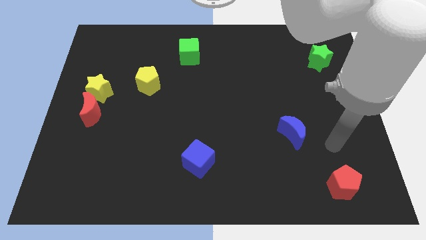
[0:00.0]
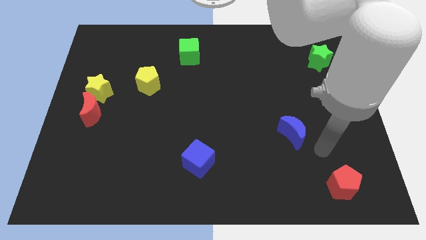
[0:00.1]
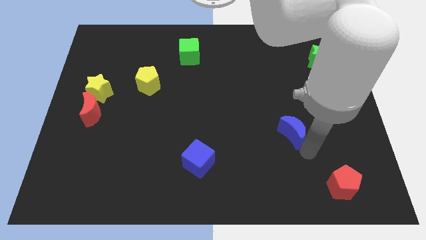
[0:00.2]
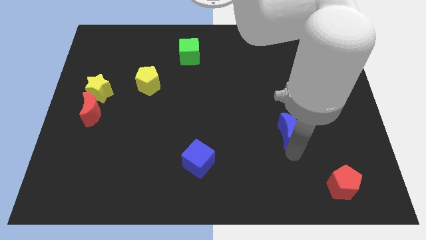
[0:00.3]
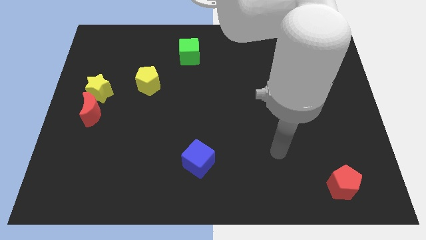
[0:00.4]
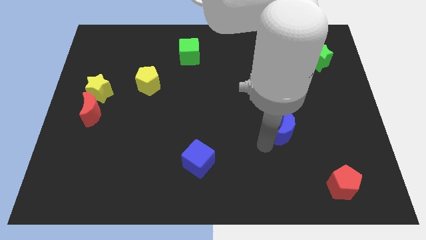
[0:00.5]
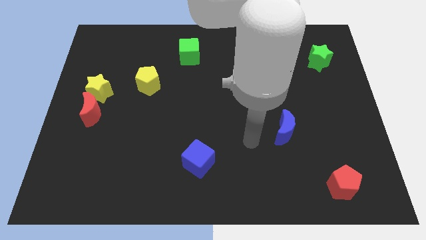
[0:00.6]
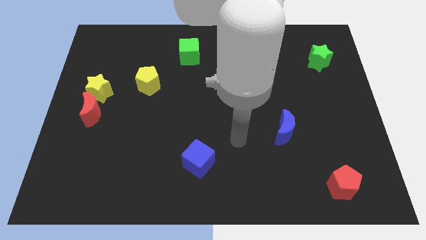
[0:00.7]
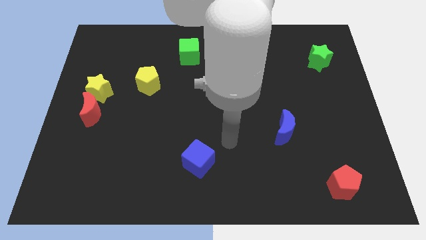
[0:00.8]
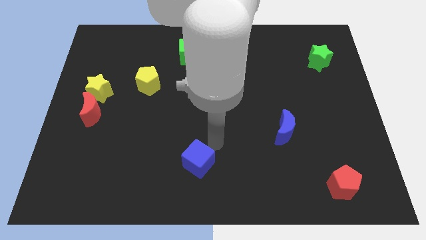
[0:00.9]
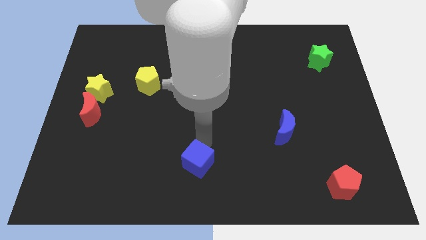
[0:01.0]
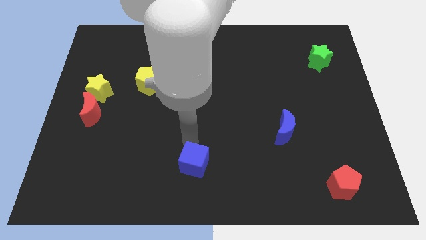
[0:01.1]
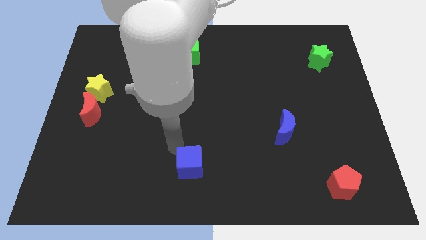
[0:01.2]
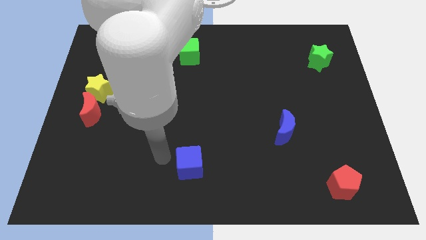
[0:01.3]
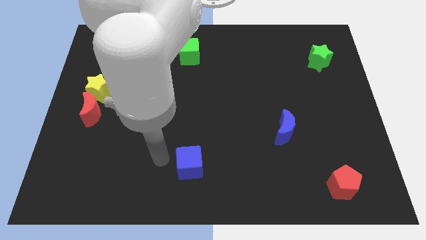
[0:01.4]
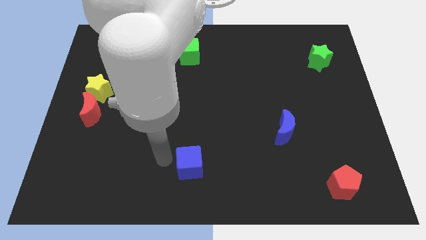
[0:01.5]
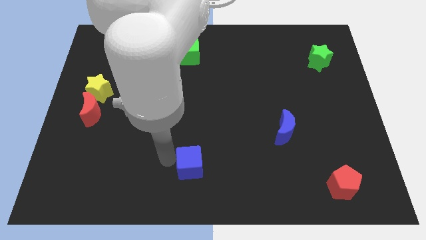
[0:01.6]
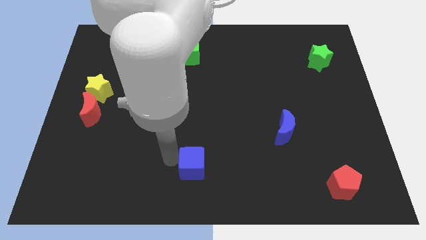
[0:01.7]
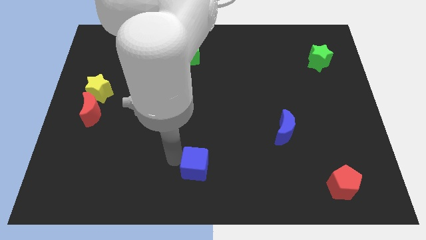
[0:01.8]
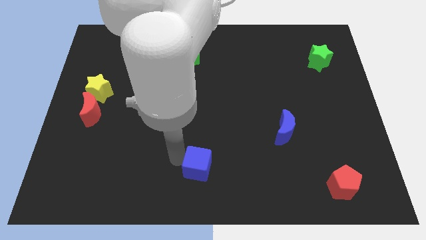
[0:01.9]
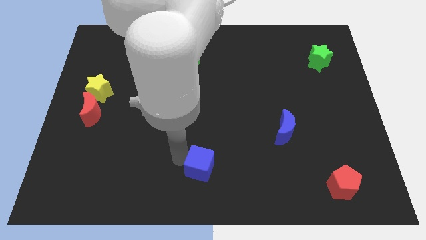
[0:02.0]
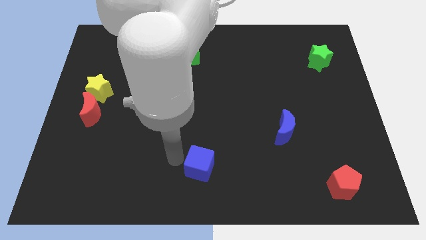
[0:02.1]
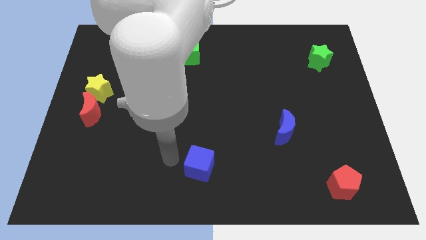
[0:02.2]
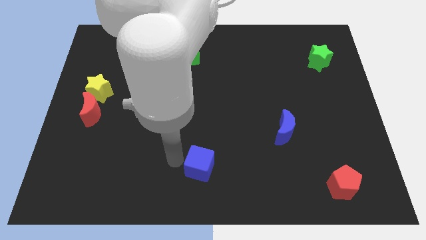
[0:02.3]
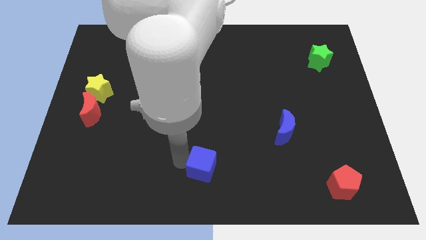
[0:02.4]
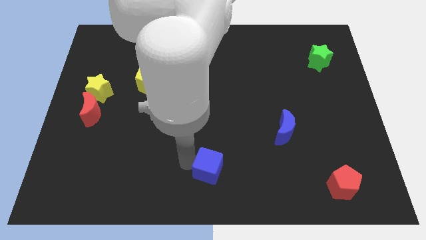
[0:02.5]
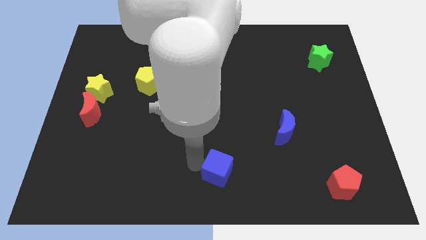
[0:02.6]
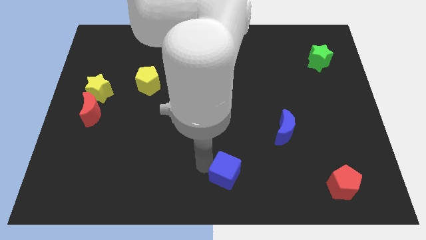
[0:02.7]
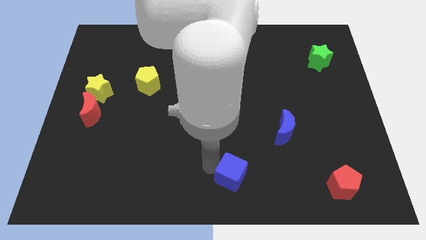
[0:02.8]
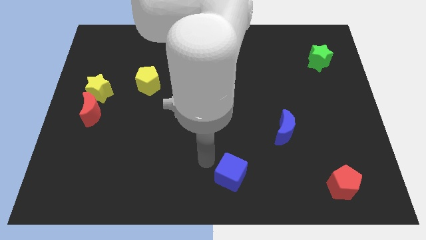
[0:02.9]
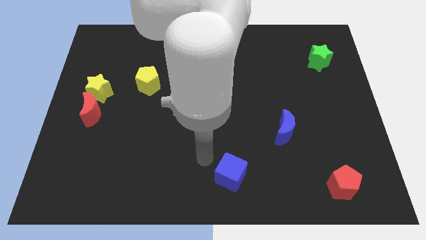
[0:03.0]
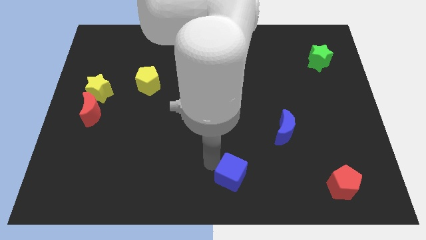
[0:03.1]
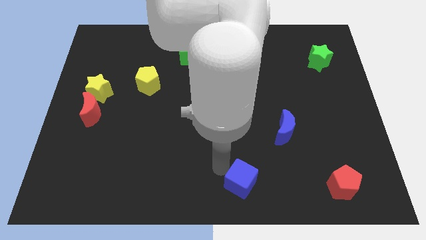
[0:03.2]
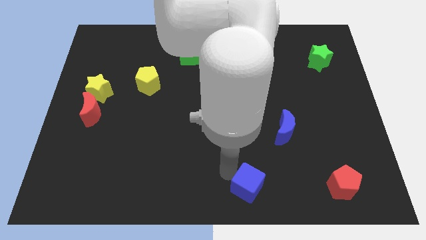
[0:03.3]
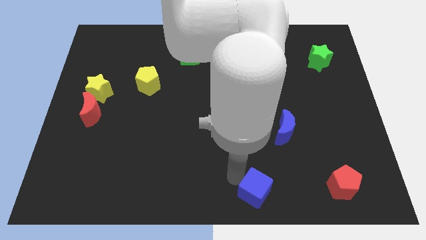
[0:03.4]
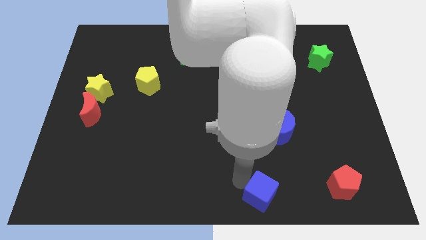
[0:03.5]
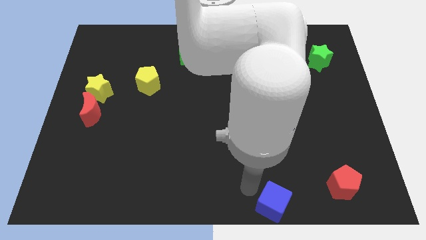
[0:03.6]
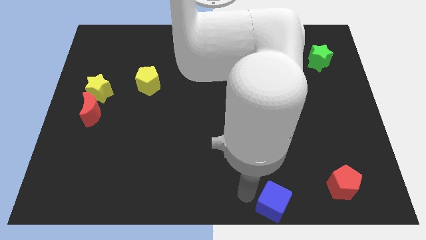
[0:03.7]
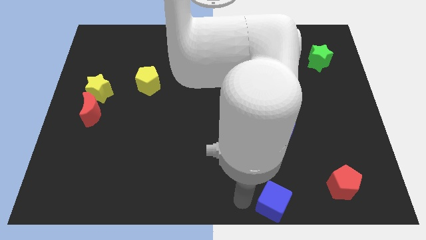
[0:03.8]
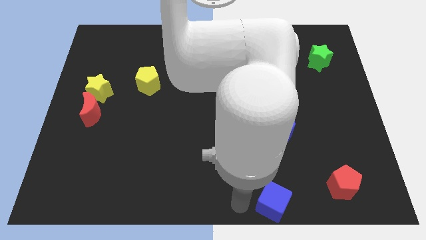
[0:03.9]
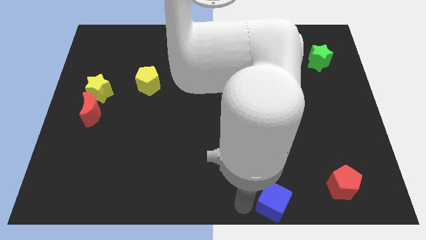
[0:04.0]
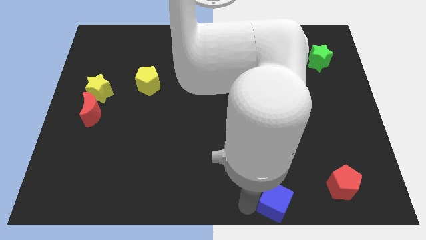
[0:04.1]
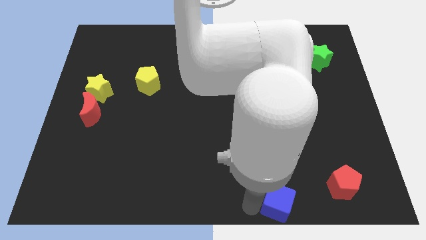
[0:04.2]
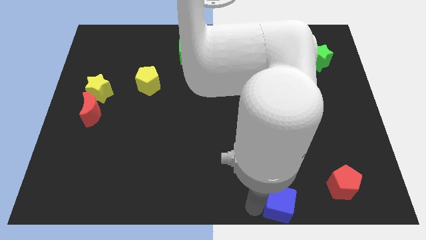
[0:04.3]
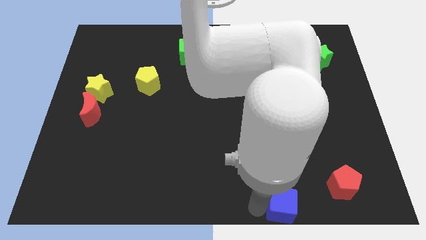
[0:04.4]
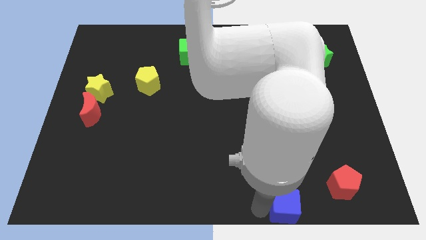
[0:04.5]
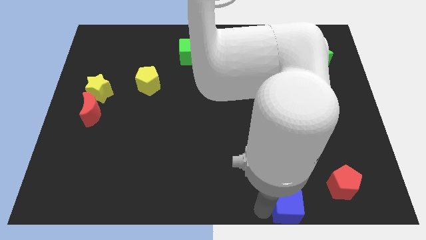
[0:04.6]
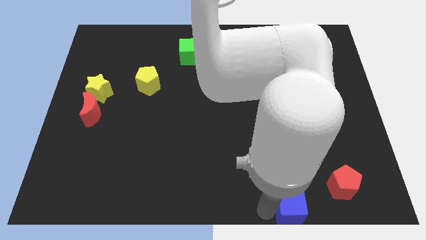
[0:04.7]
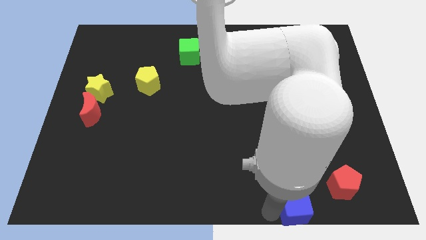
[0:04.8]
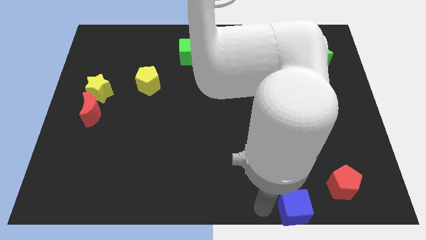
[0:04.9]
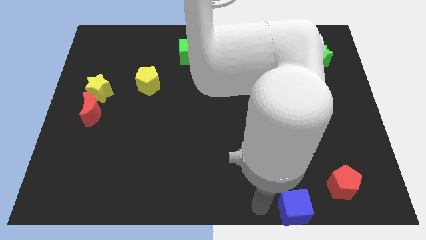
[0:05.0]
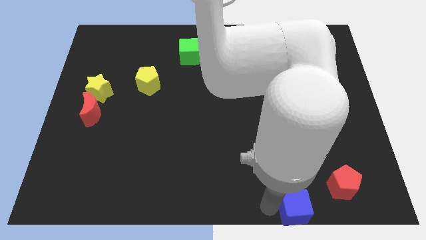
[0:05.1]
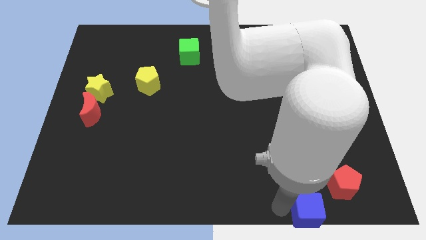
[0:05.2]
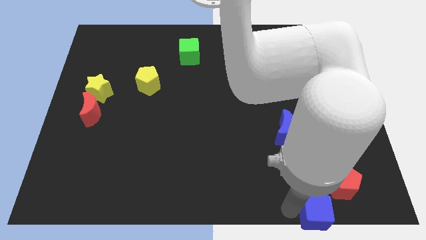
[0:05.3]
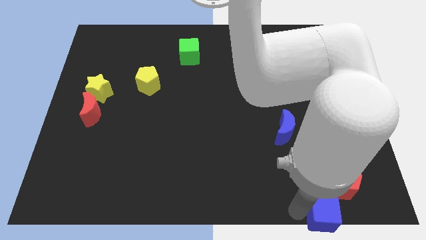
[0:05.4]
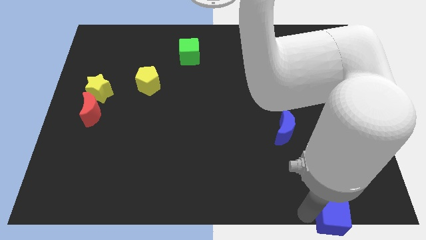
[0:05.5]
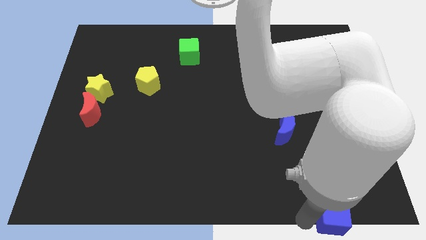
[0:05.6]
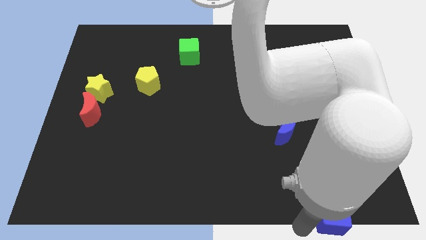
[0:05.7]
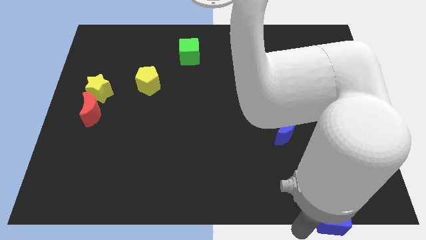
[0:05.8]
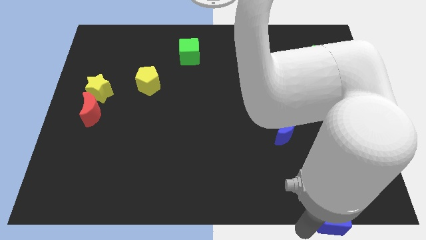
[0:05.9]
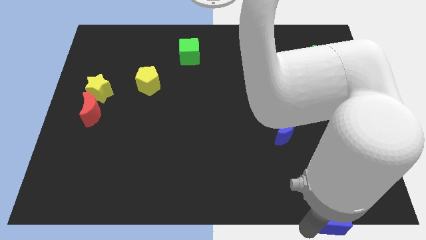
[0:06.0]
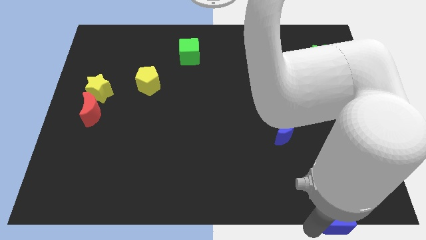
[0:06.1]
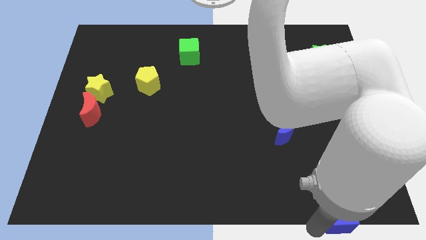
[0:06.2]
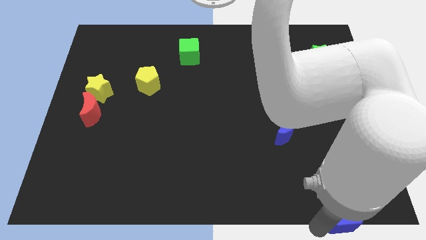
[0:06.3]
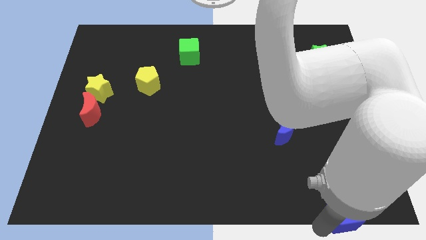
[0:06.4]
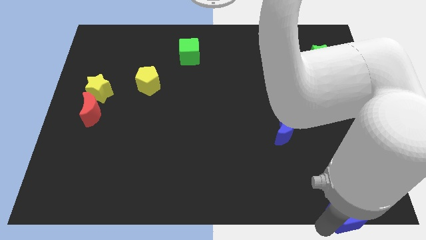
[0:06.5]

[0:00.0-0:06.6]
push the blue cube to the bottom right corner
